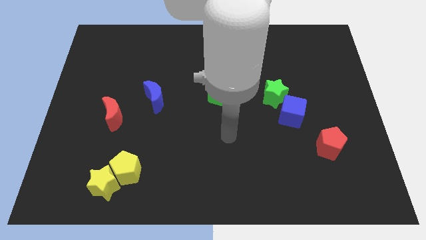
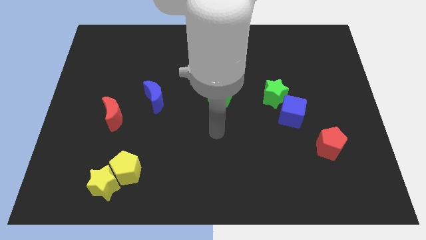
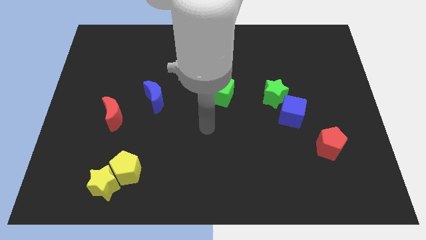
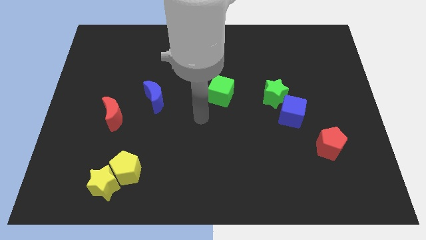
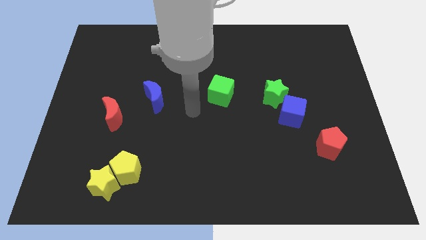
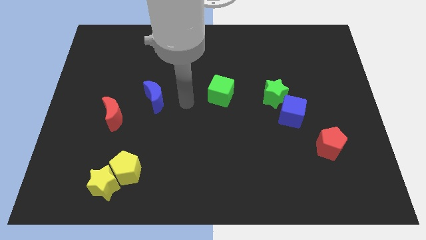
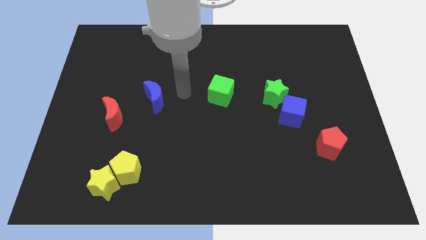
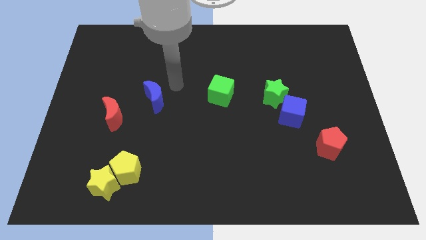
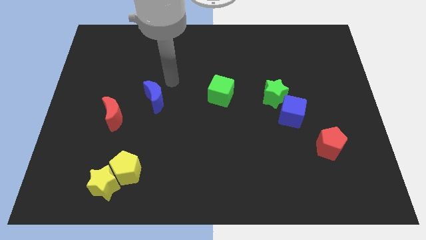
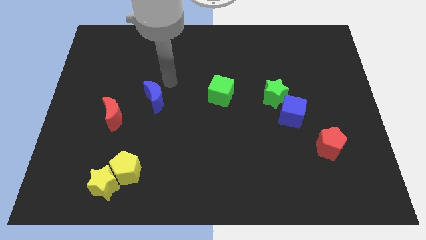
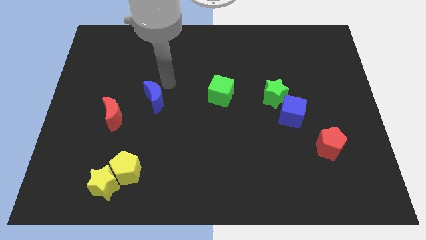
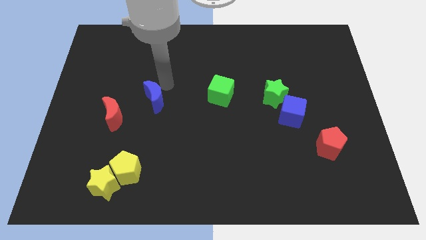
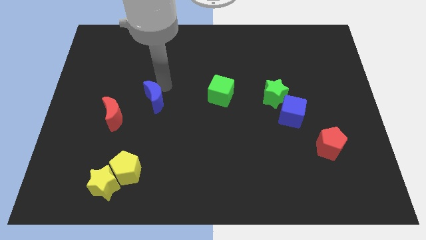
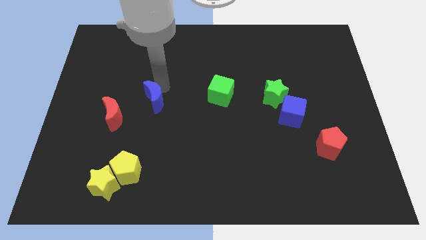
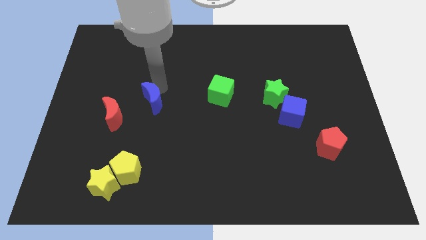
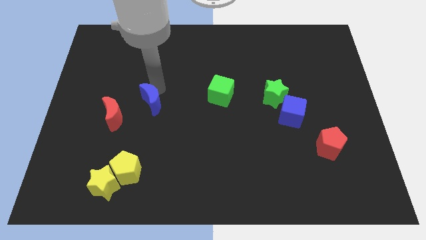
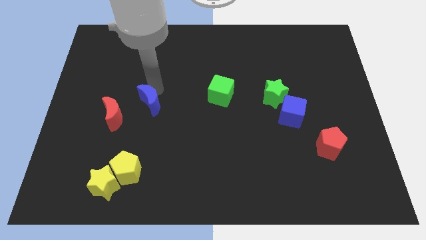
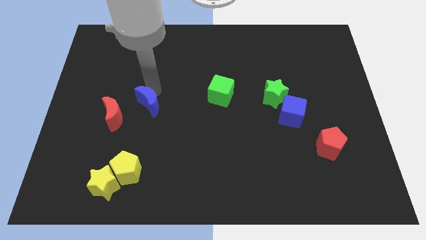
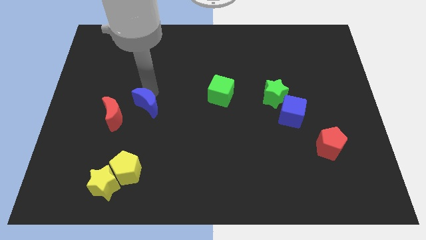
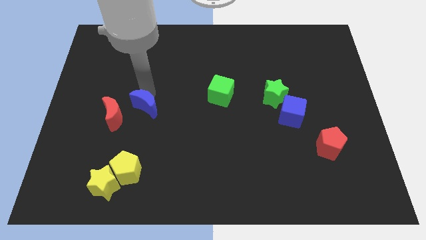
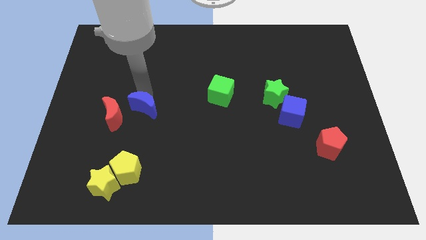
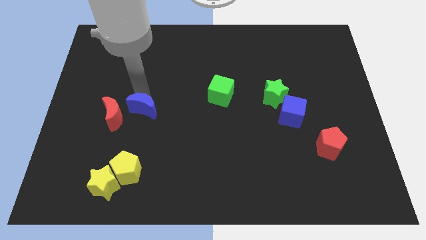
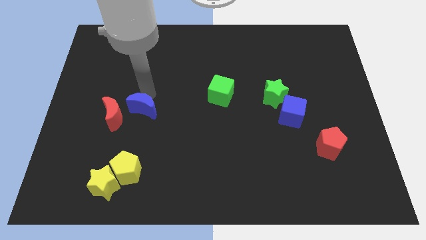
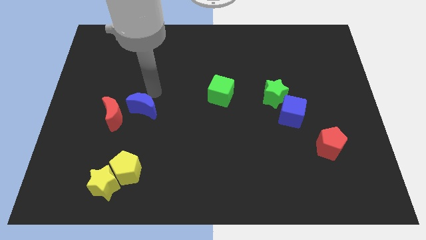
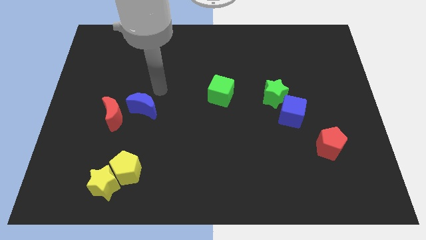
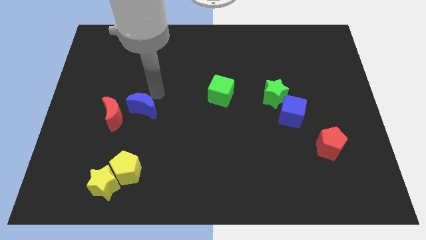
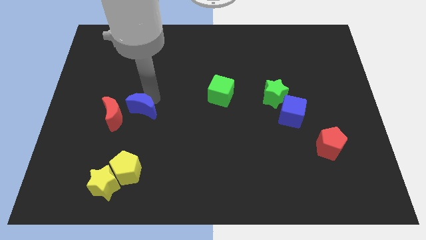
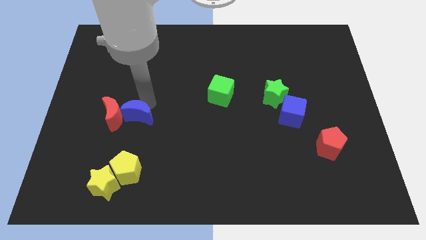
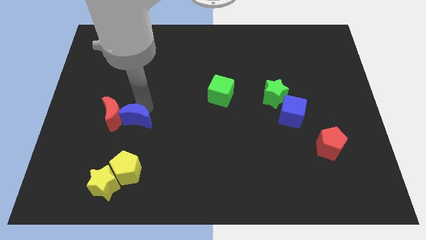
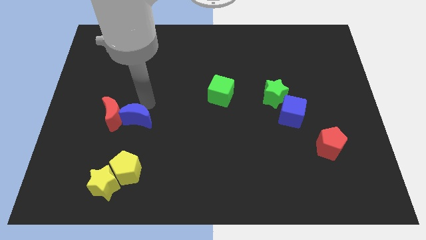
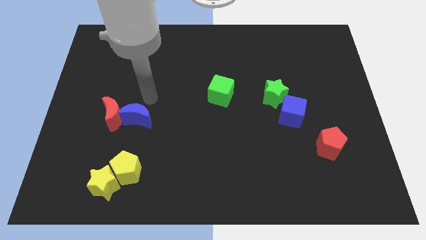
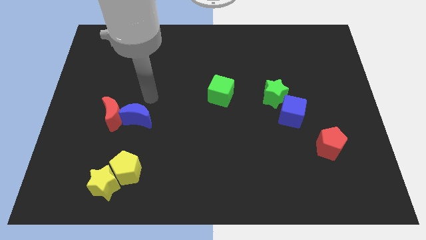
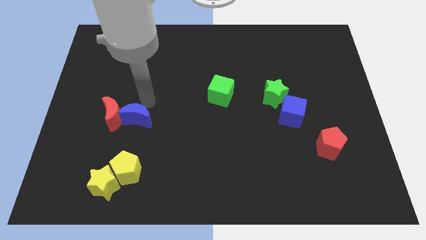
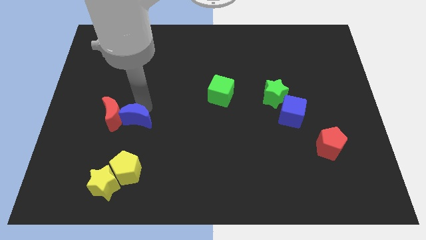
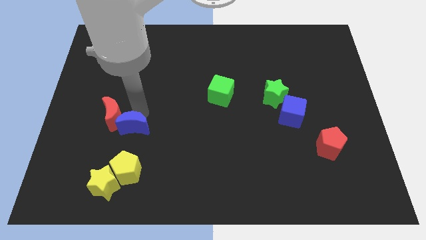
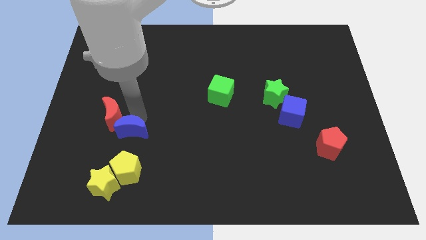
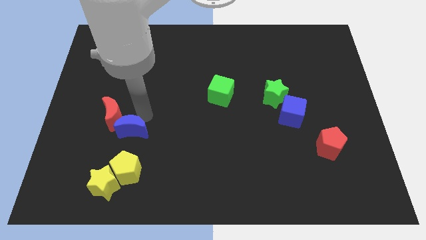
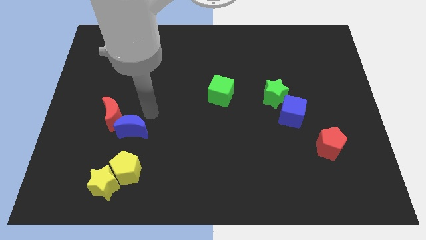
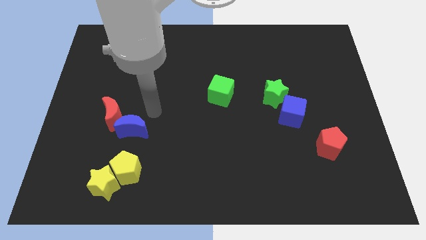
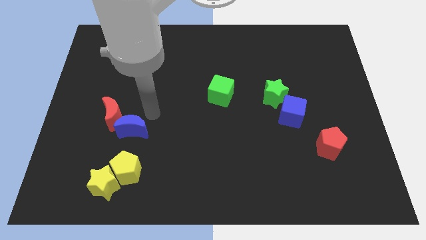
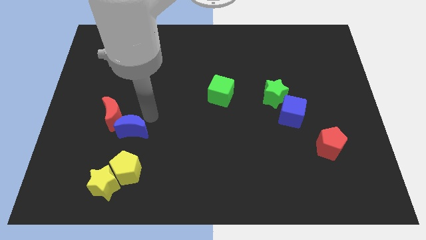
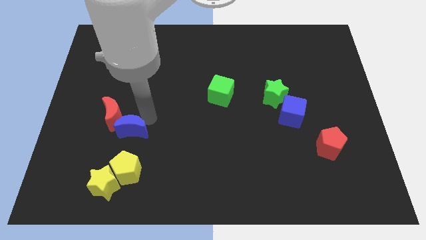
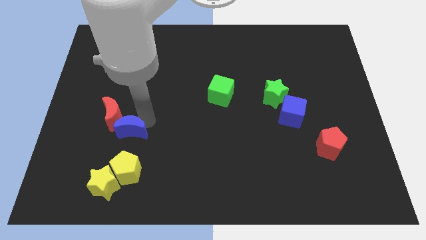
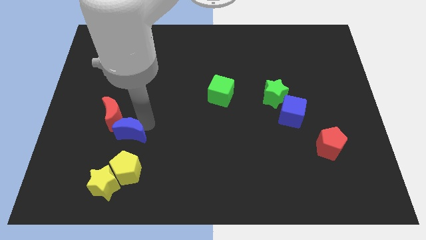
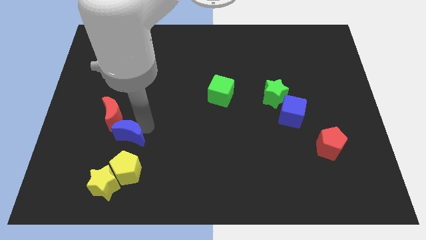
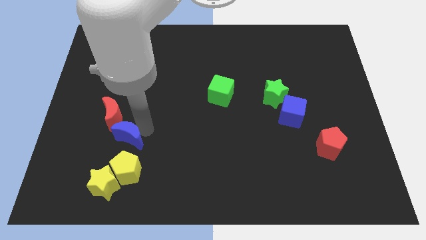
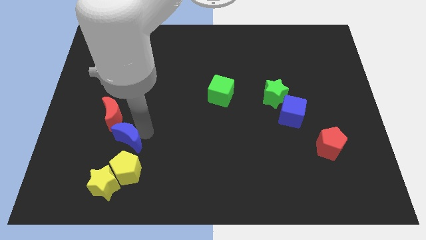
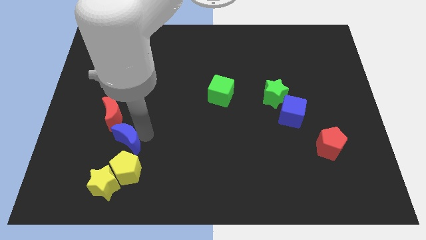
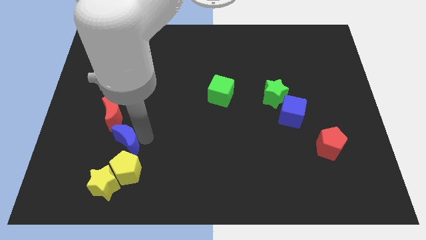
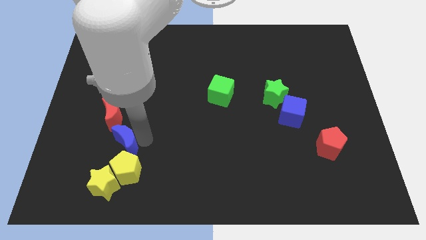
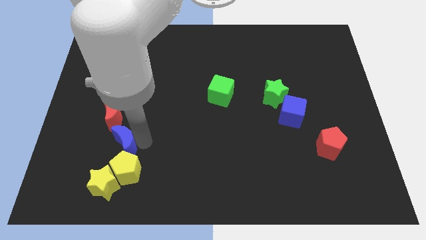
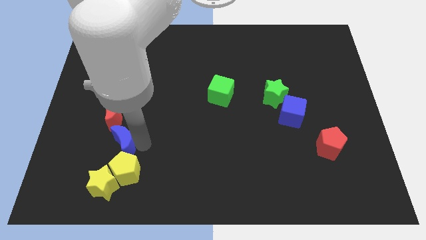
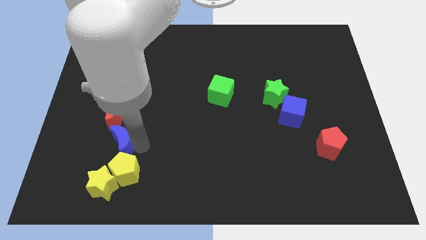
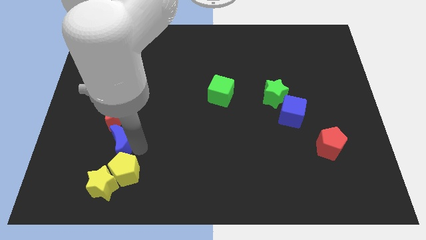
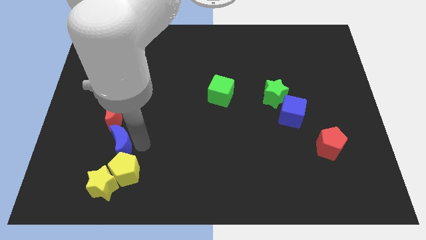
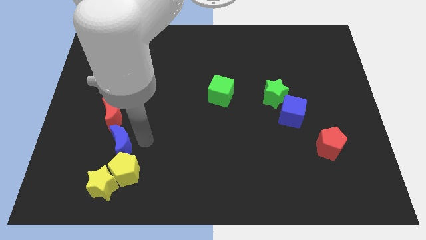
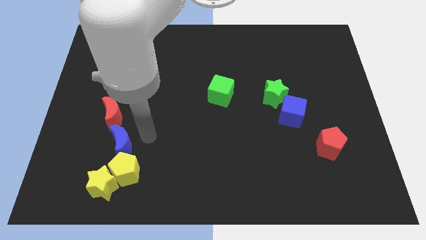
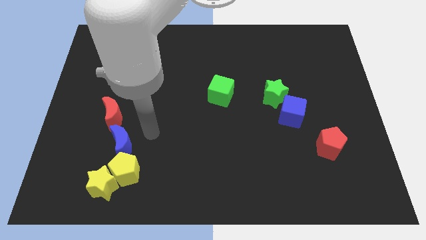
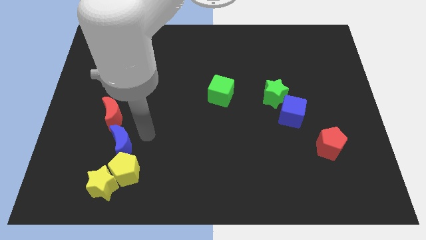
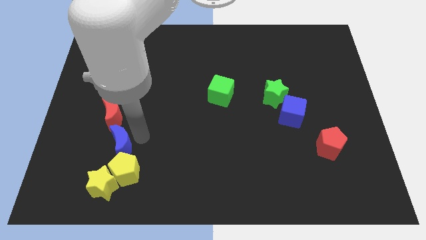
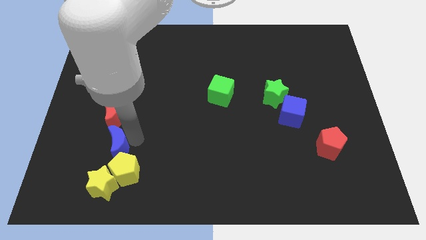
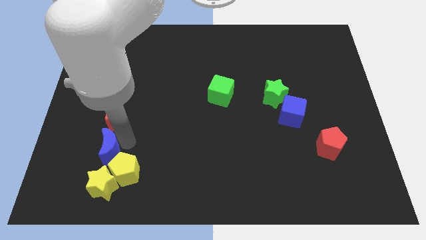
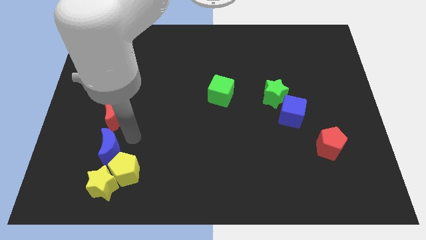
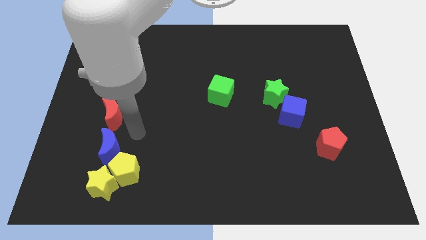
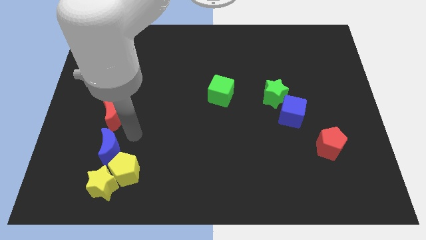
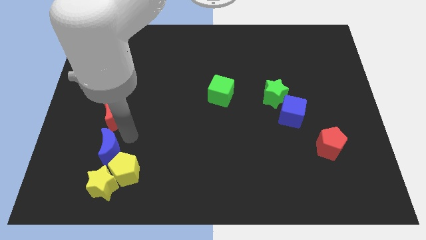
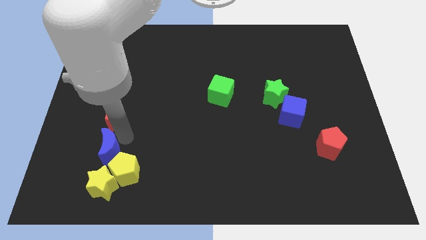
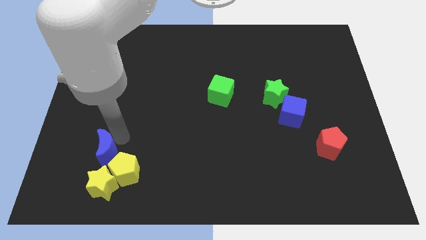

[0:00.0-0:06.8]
move the blue moon just left of the yellow pentagon
